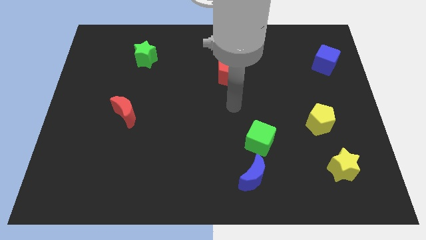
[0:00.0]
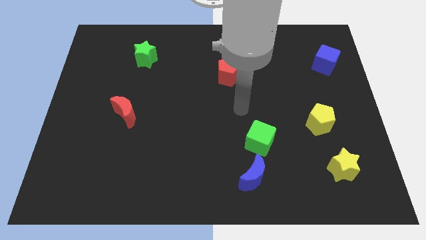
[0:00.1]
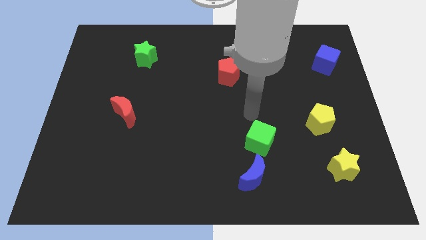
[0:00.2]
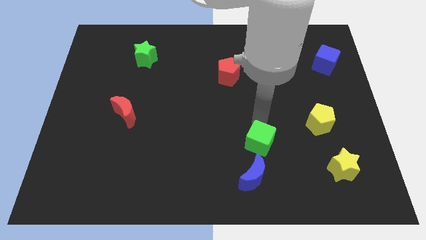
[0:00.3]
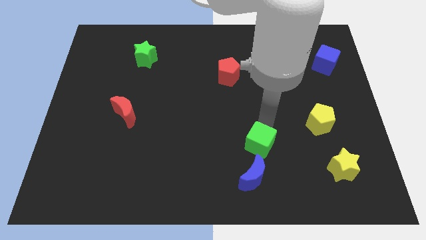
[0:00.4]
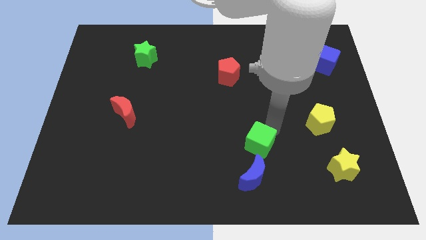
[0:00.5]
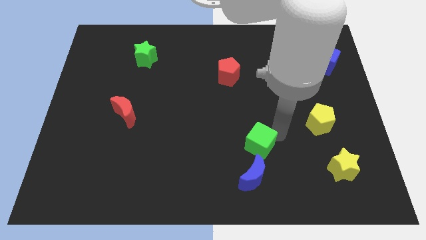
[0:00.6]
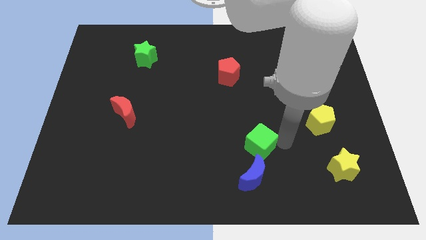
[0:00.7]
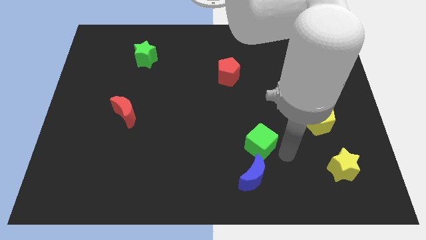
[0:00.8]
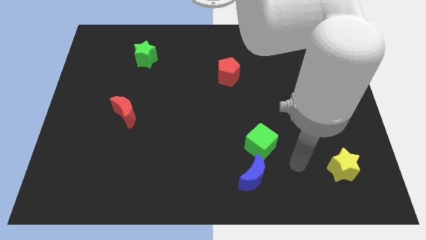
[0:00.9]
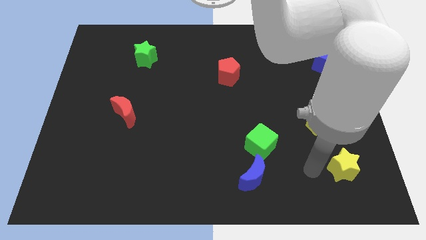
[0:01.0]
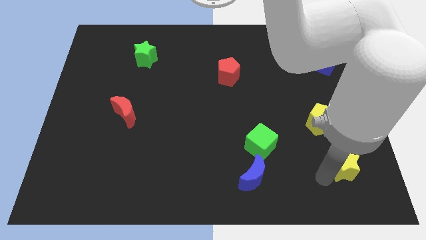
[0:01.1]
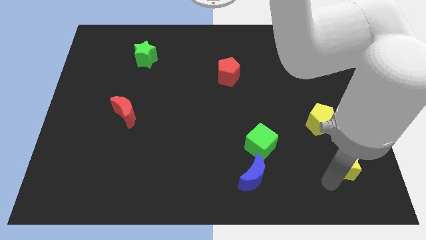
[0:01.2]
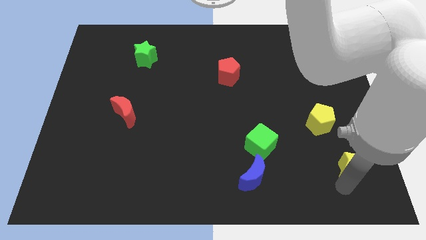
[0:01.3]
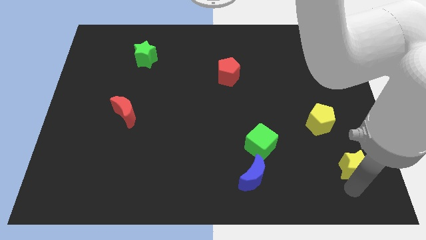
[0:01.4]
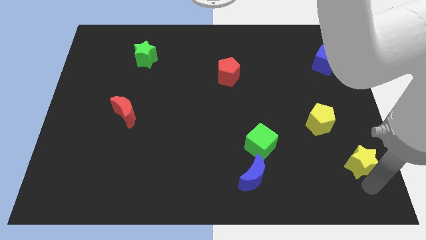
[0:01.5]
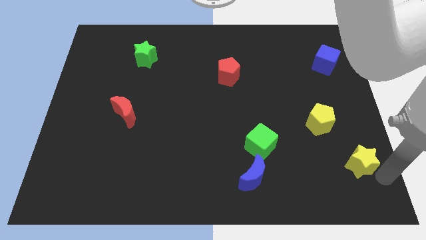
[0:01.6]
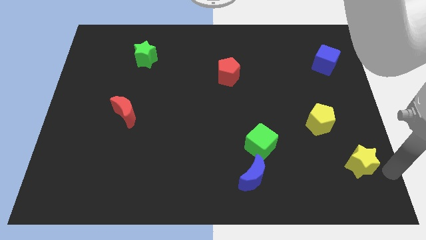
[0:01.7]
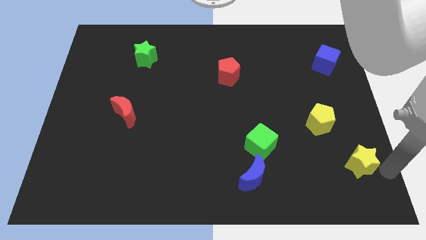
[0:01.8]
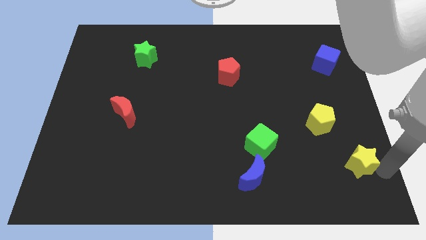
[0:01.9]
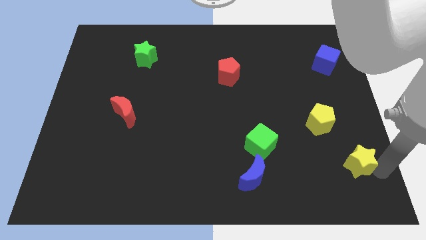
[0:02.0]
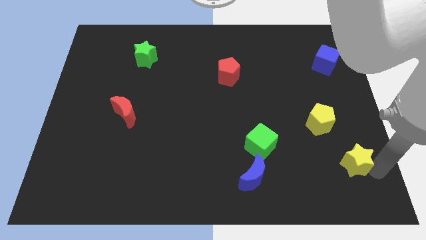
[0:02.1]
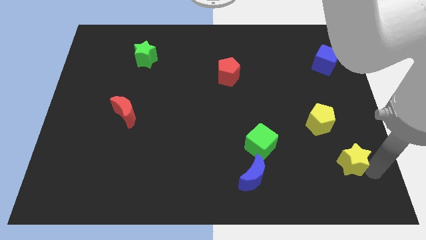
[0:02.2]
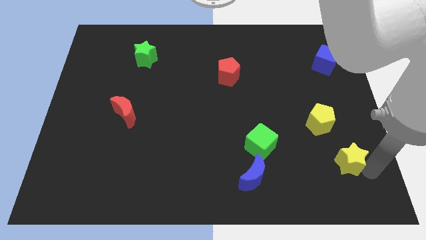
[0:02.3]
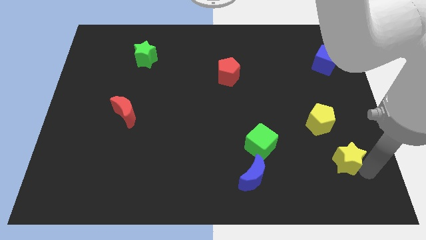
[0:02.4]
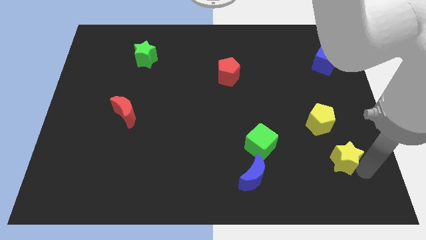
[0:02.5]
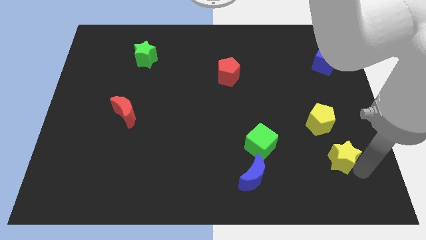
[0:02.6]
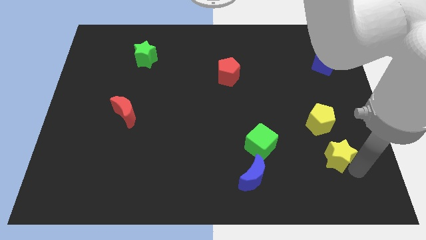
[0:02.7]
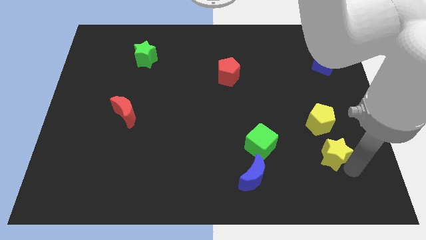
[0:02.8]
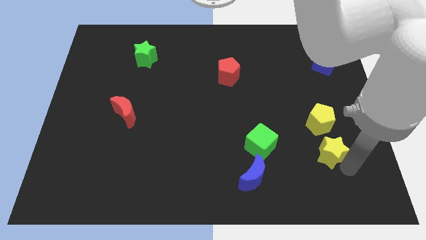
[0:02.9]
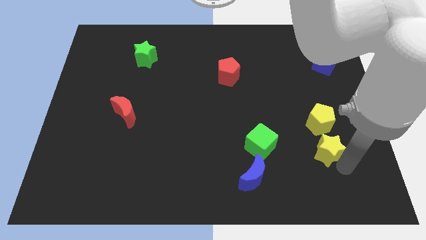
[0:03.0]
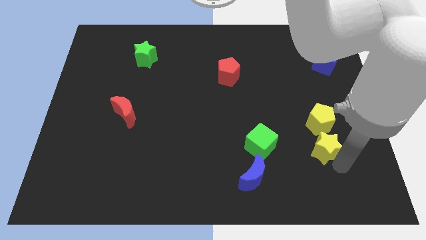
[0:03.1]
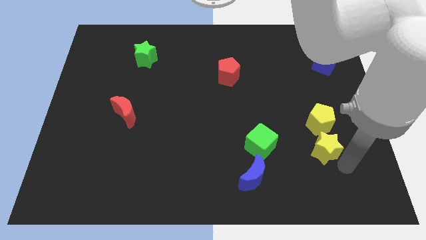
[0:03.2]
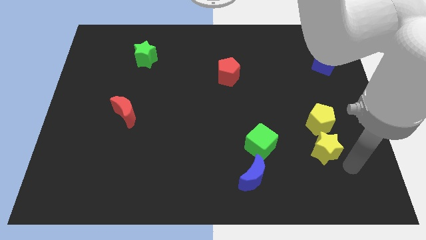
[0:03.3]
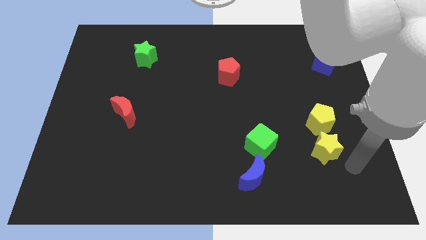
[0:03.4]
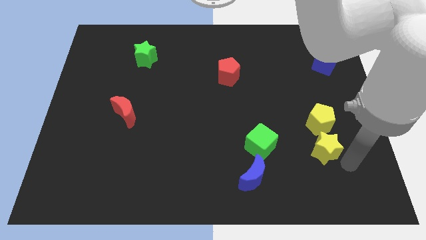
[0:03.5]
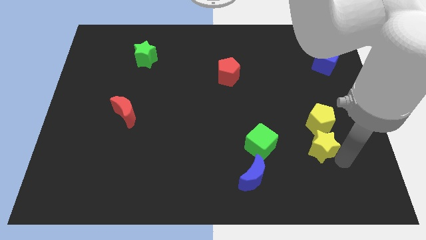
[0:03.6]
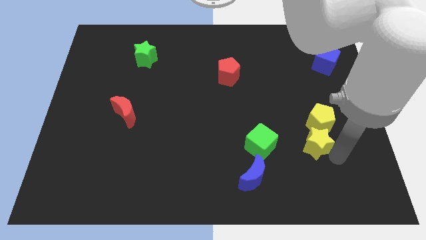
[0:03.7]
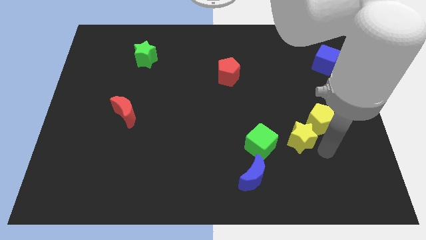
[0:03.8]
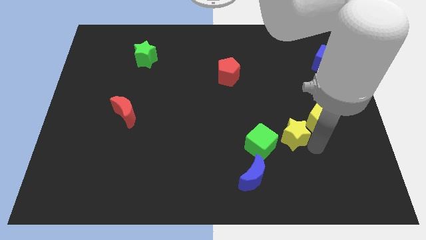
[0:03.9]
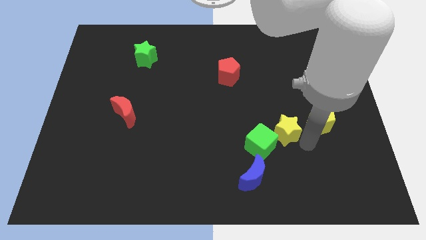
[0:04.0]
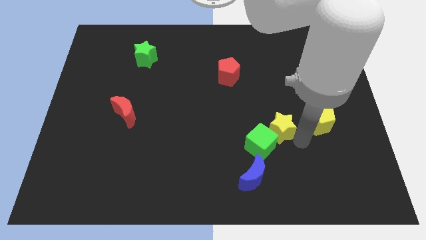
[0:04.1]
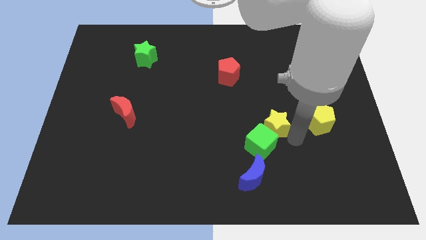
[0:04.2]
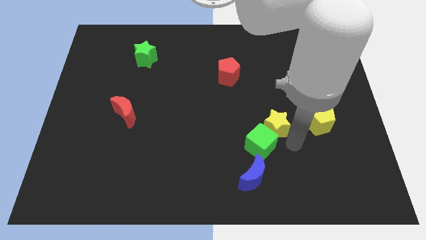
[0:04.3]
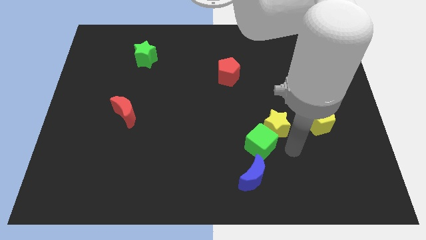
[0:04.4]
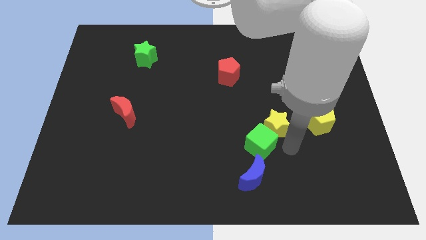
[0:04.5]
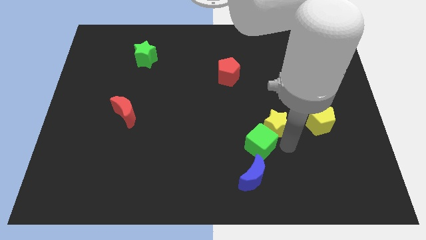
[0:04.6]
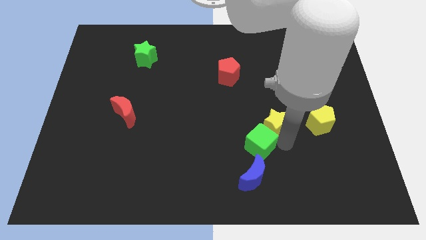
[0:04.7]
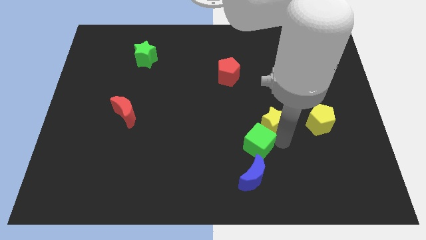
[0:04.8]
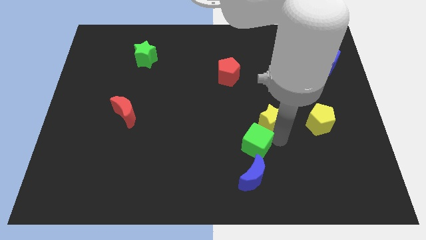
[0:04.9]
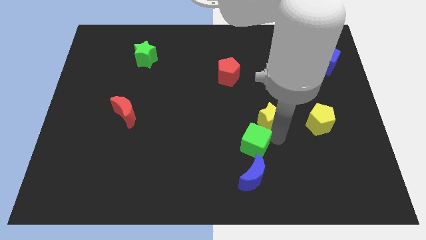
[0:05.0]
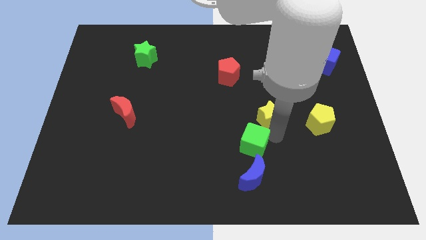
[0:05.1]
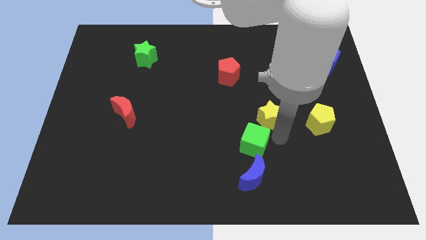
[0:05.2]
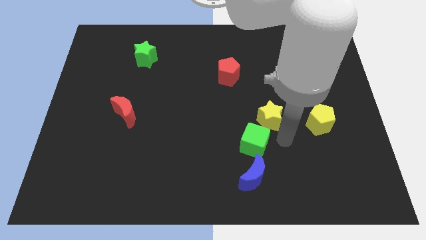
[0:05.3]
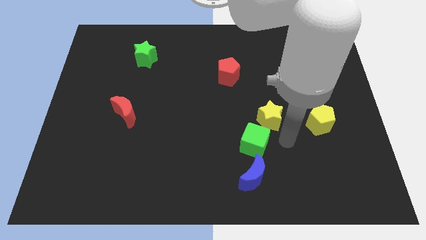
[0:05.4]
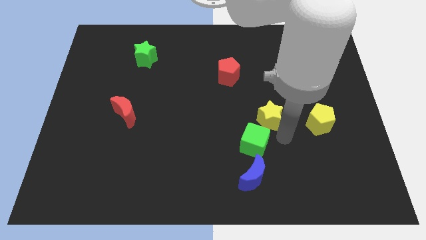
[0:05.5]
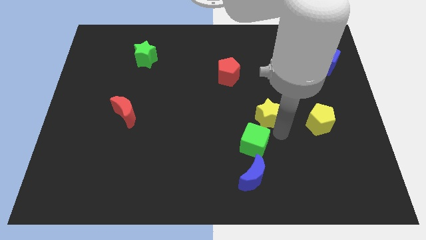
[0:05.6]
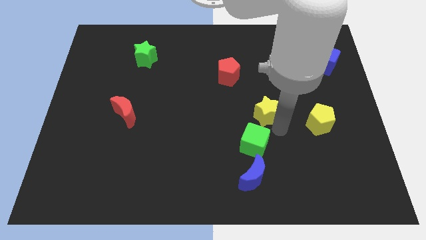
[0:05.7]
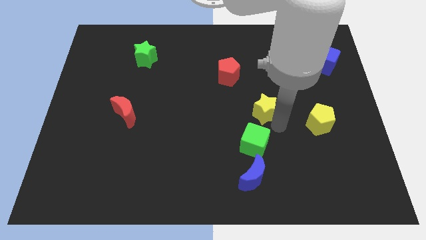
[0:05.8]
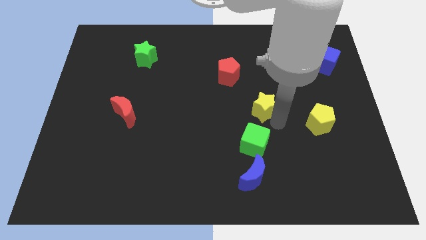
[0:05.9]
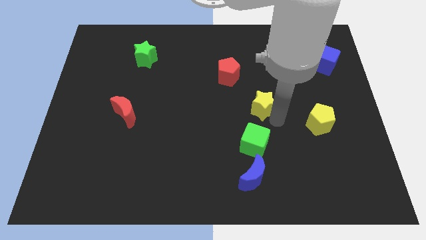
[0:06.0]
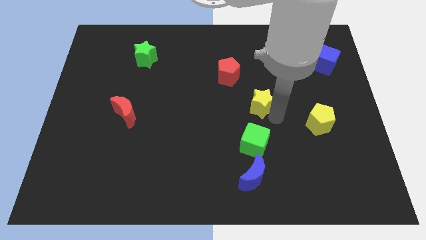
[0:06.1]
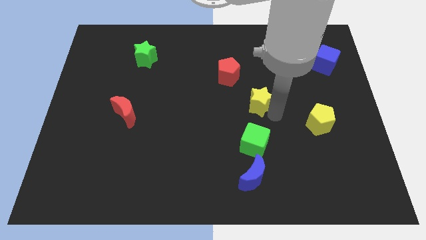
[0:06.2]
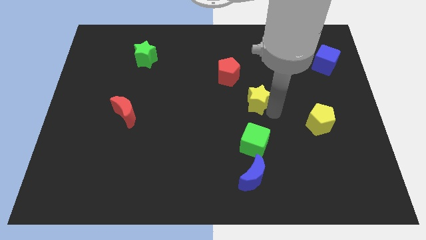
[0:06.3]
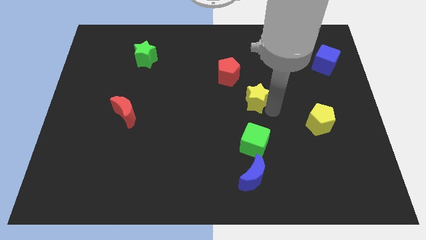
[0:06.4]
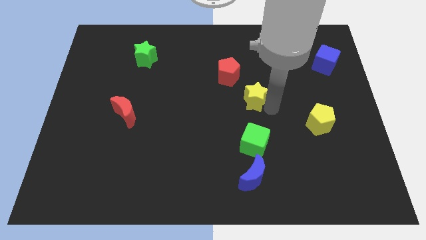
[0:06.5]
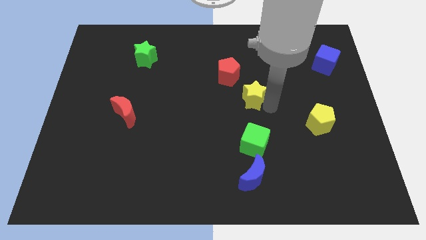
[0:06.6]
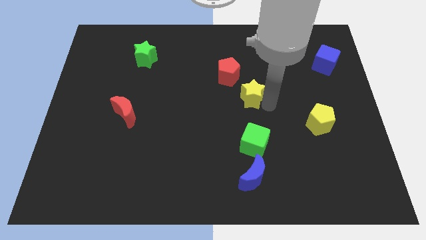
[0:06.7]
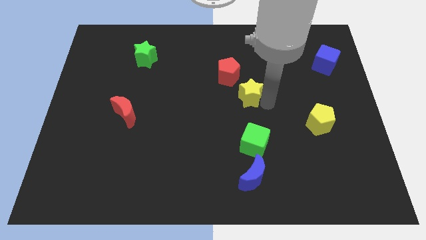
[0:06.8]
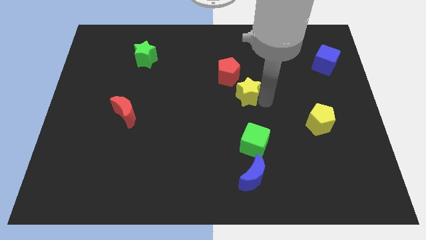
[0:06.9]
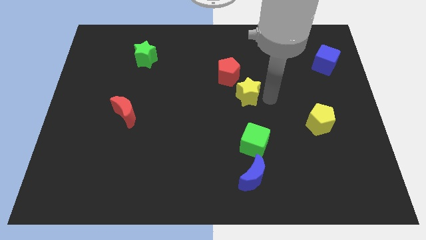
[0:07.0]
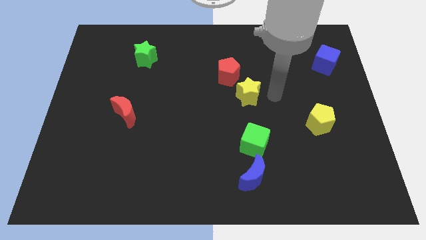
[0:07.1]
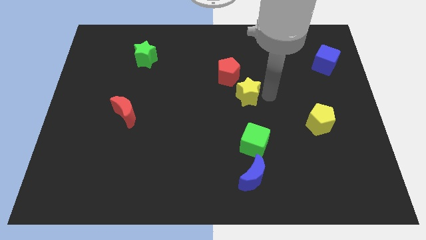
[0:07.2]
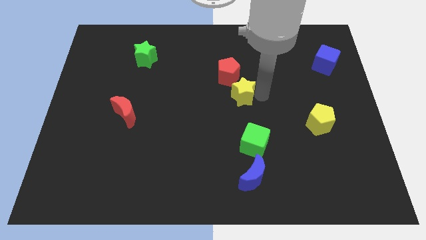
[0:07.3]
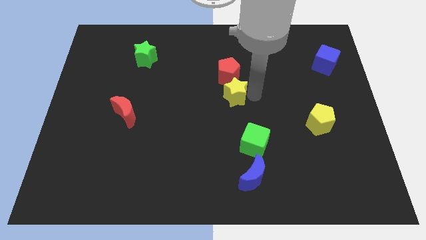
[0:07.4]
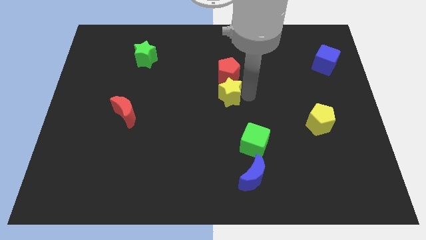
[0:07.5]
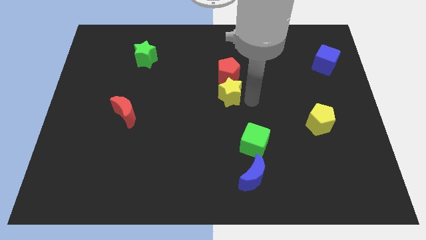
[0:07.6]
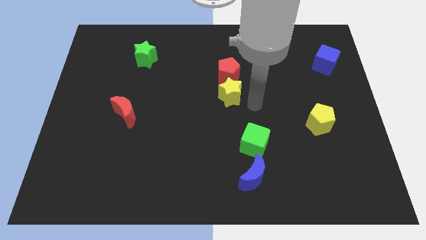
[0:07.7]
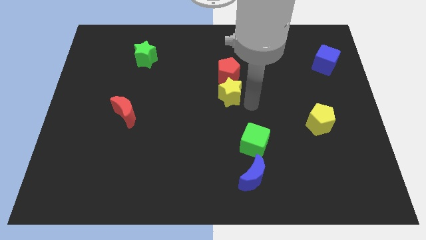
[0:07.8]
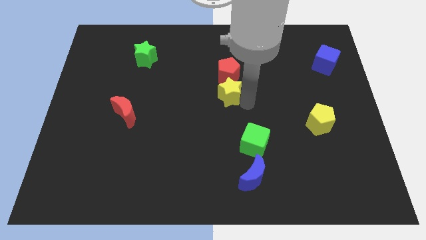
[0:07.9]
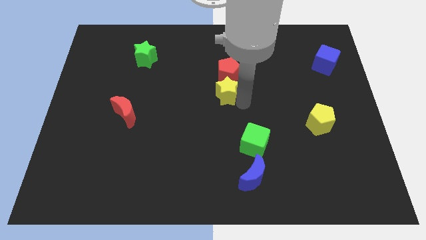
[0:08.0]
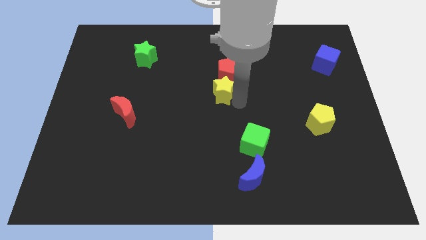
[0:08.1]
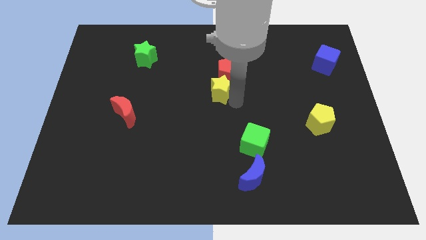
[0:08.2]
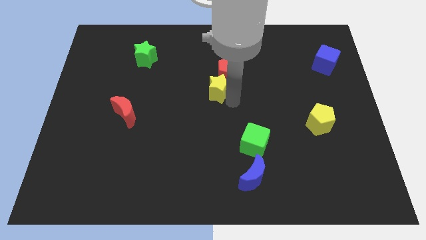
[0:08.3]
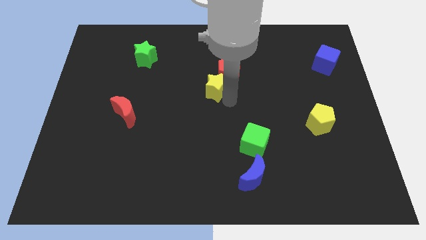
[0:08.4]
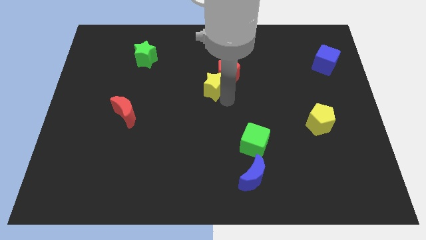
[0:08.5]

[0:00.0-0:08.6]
slide the yellow star left of the red pentagon
